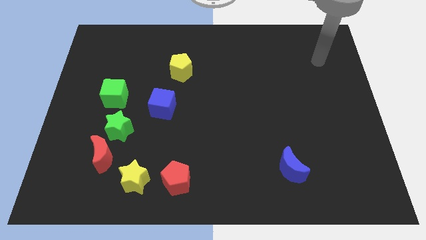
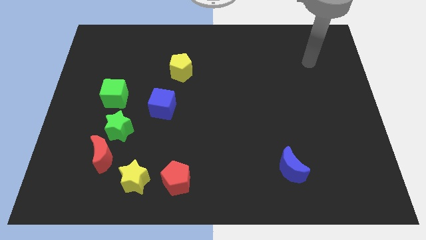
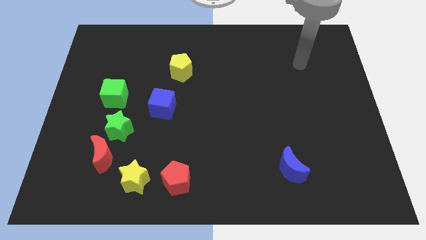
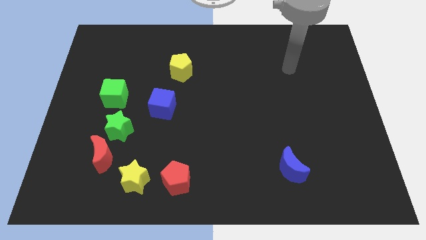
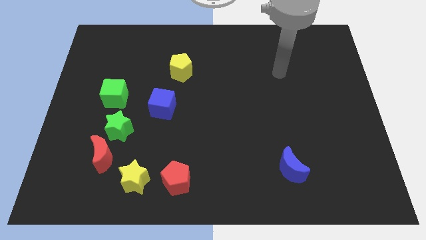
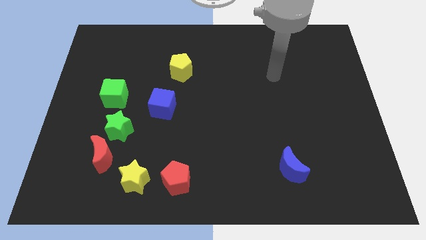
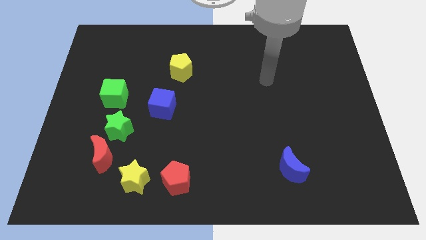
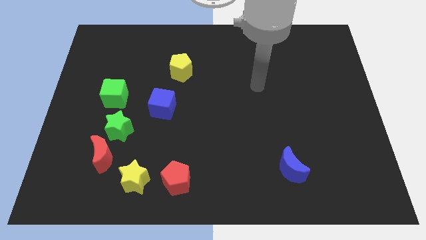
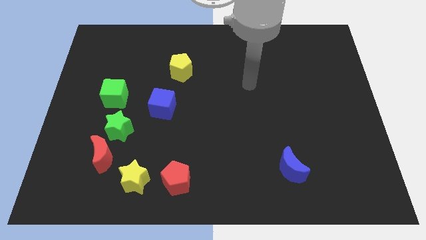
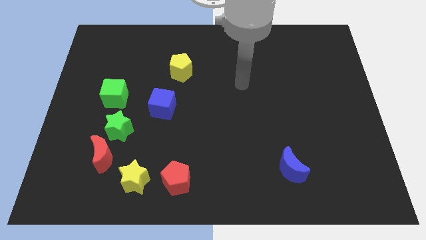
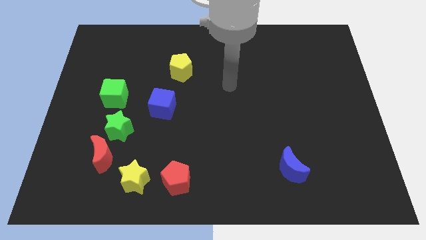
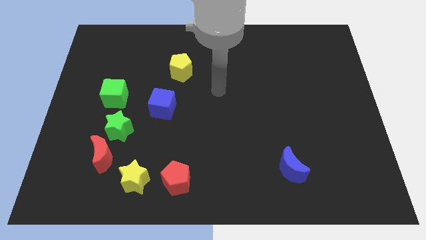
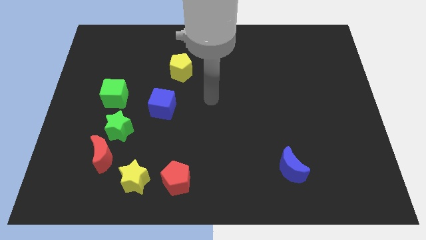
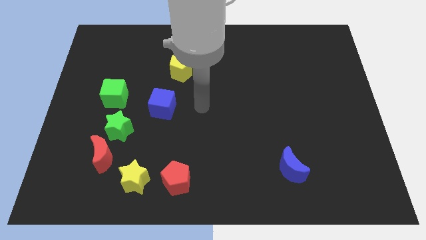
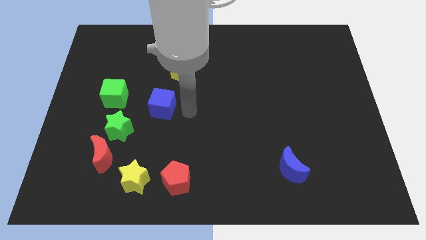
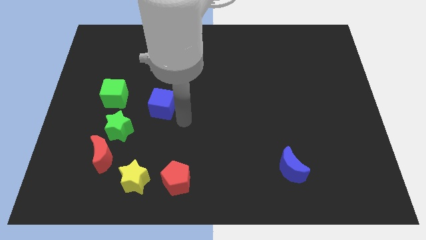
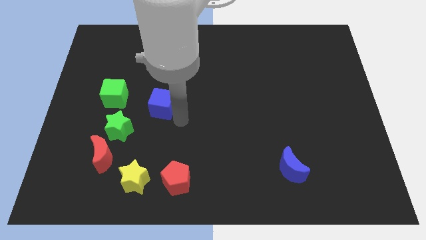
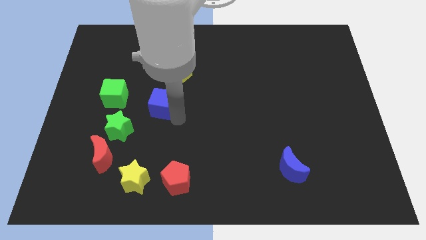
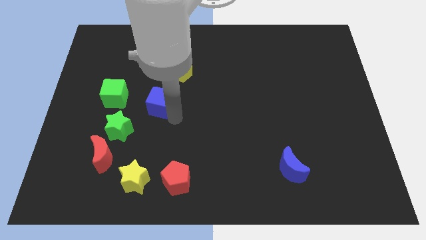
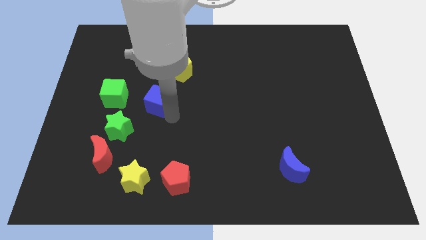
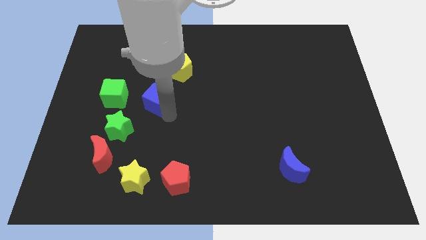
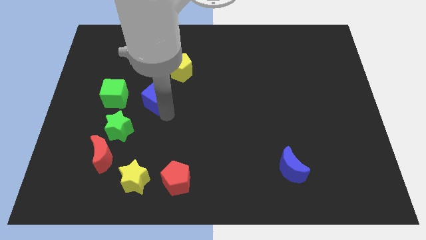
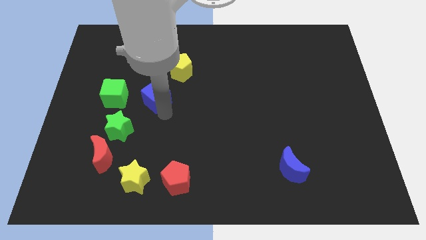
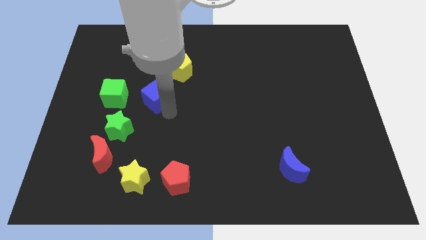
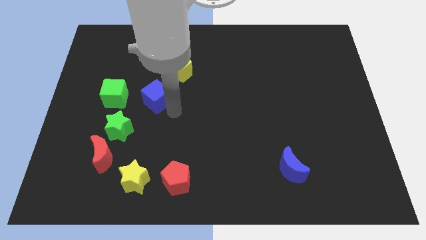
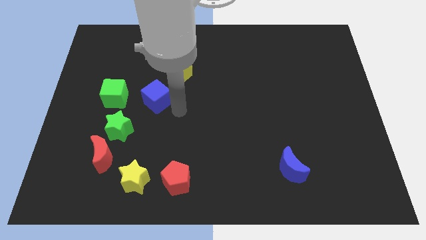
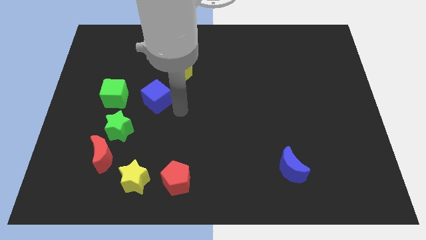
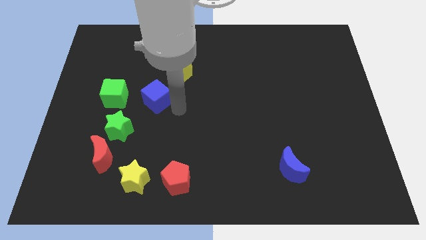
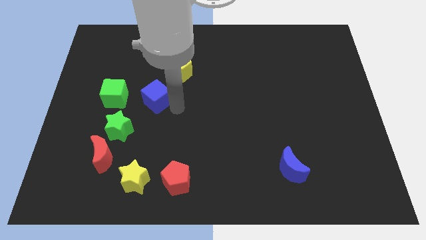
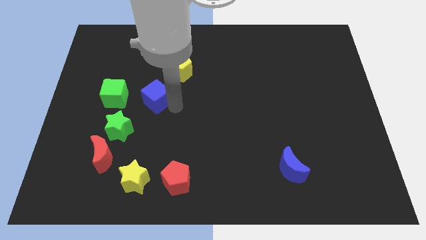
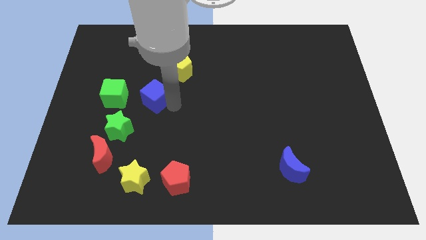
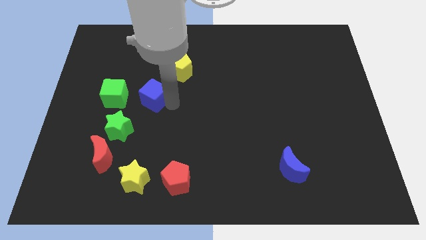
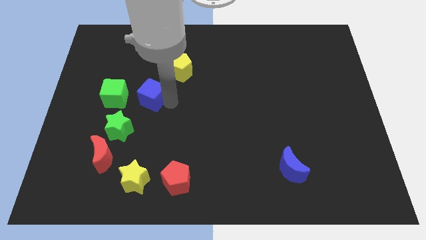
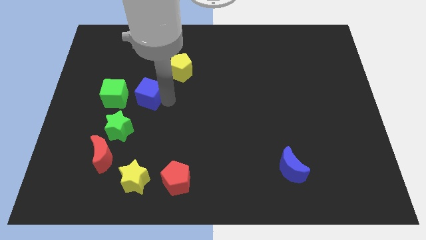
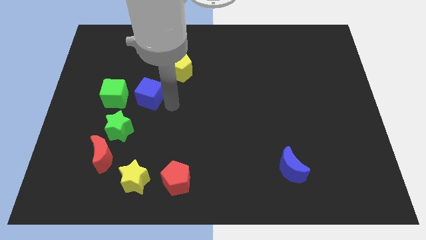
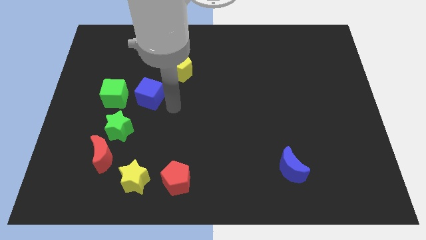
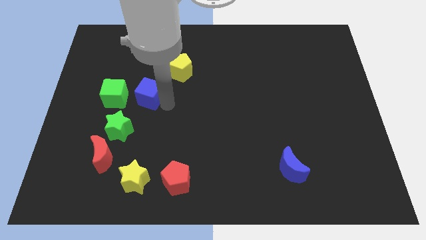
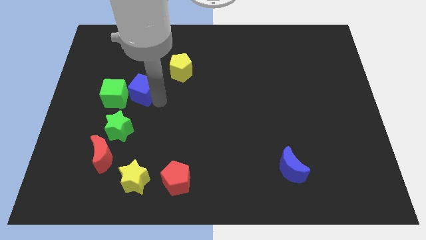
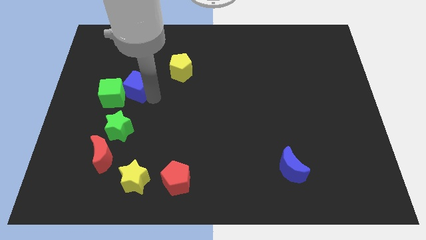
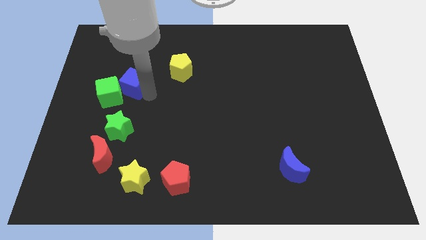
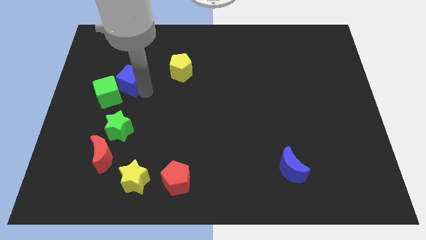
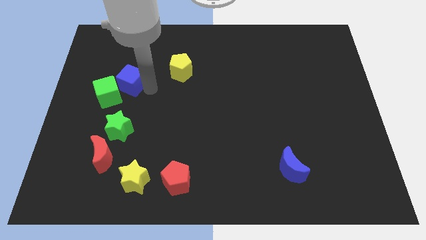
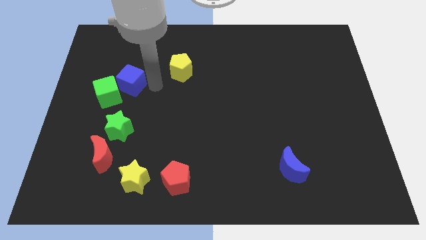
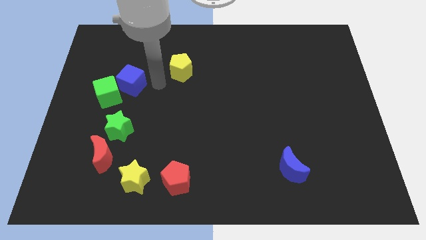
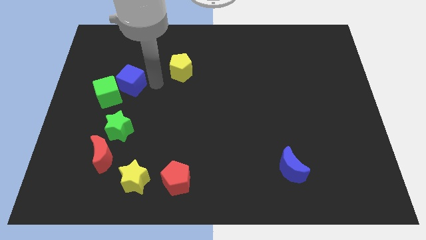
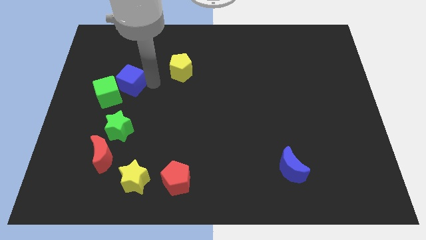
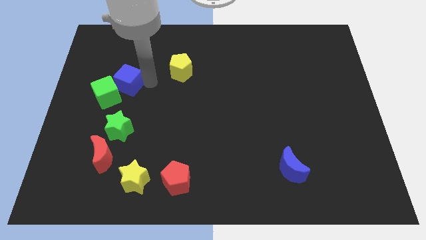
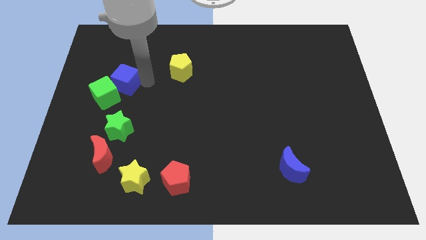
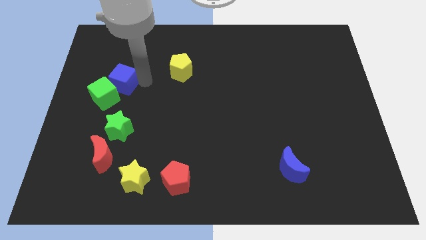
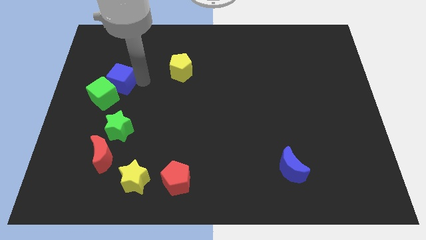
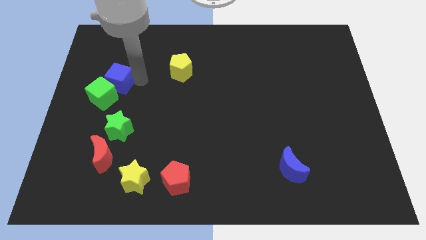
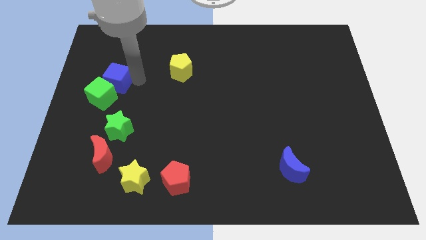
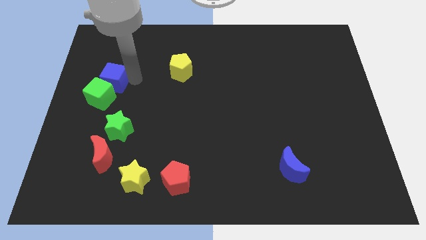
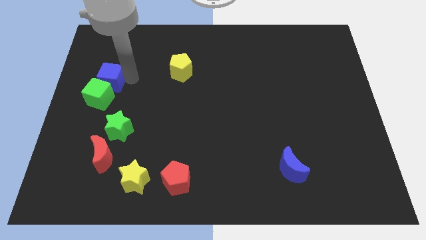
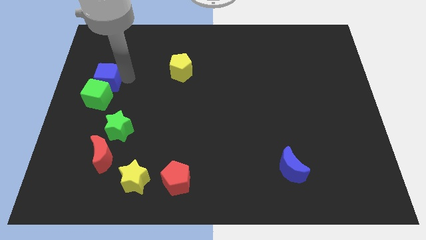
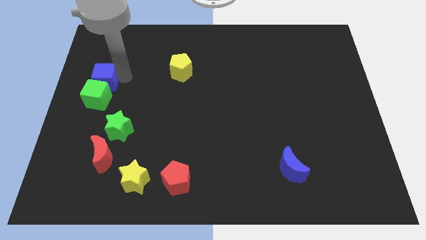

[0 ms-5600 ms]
slide the blue cube to the left side of the board

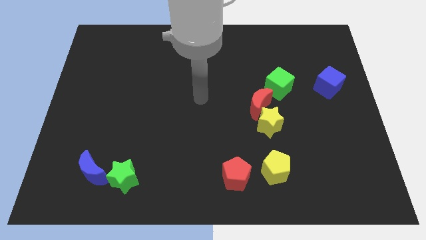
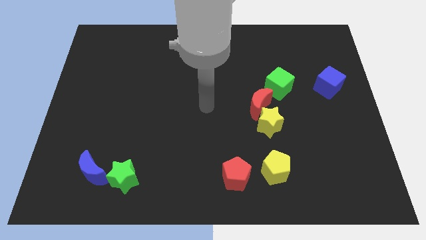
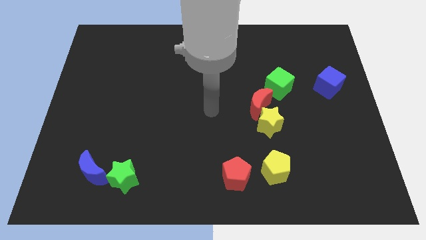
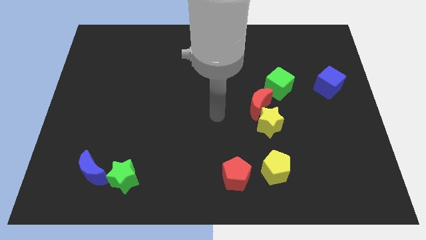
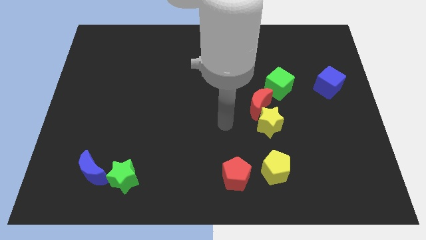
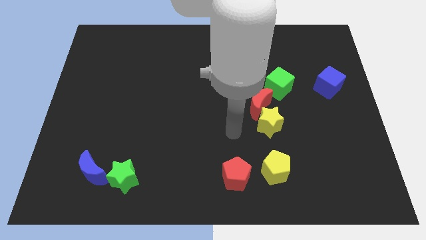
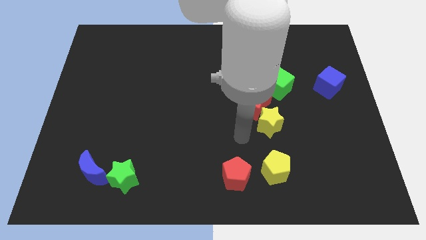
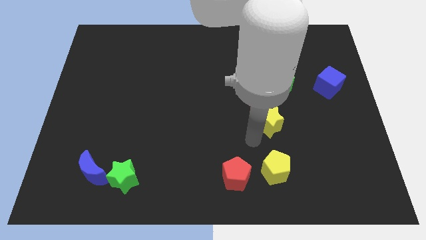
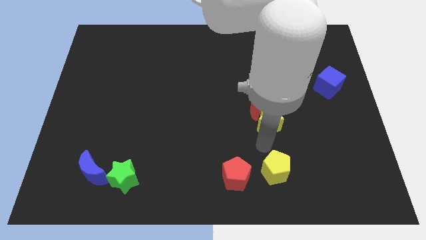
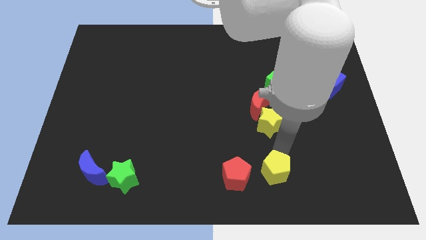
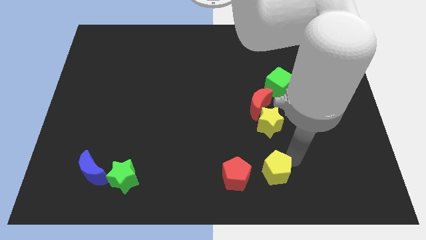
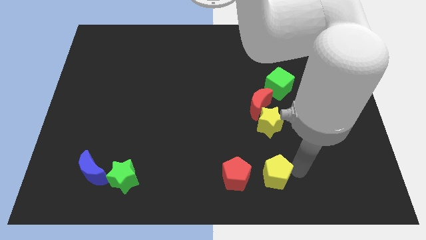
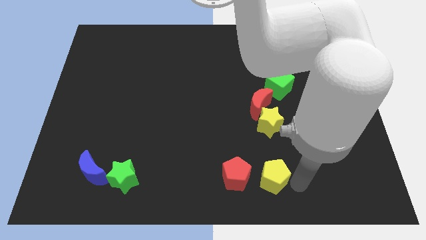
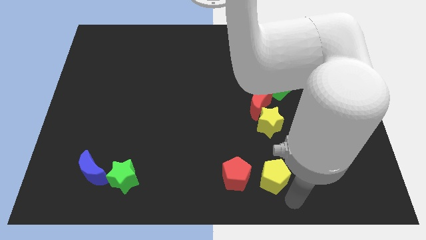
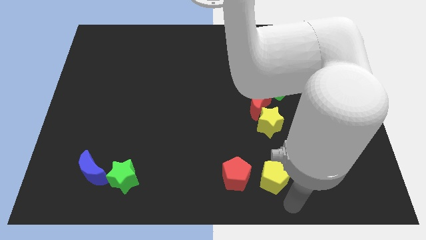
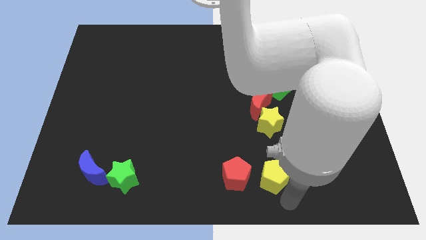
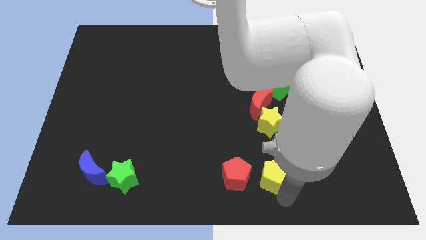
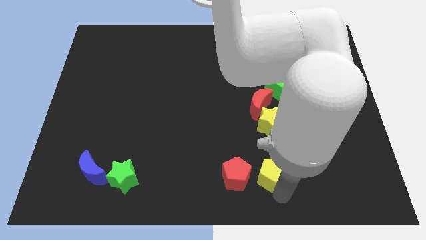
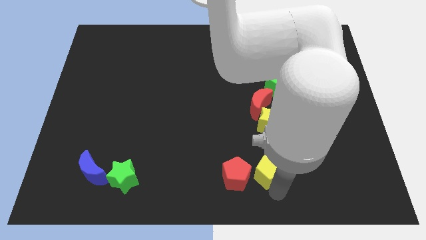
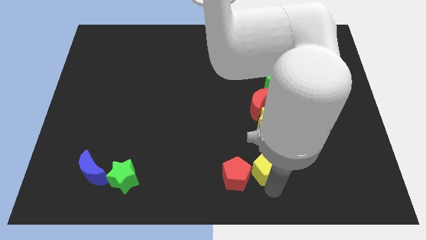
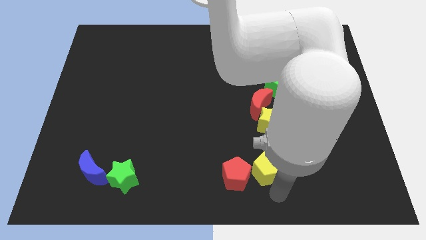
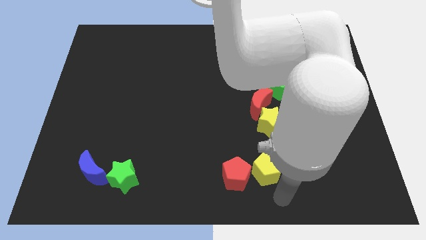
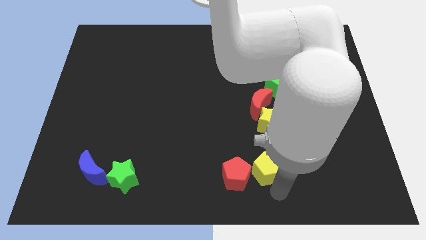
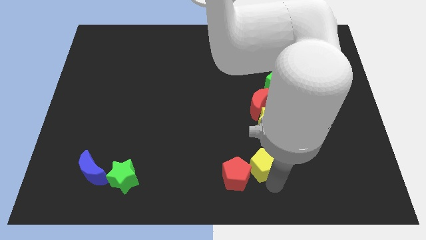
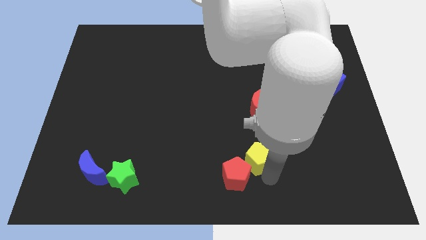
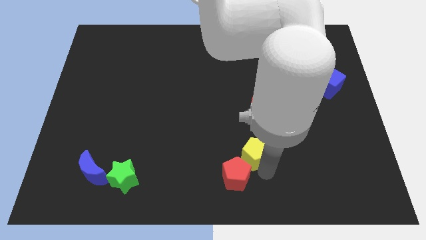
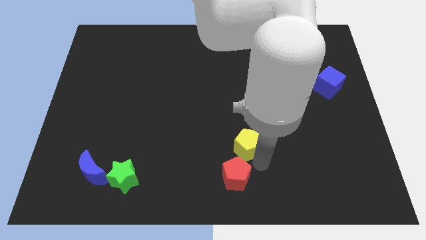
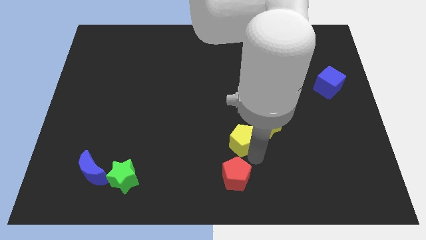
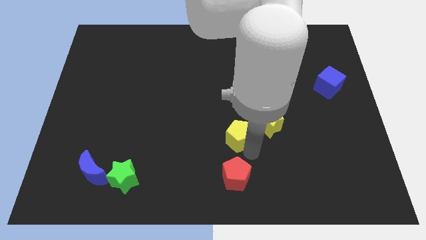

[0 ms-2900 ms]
move the yellow pentagon to the middle of the board
